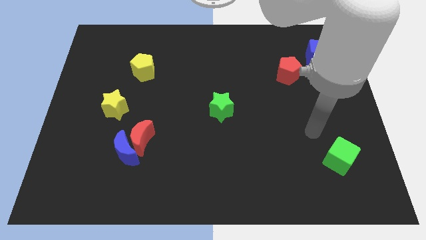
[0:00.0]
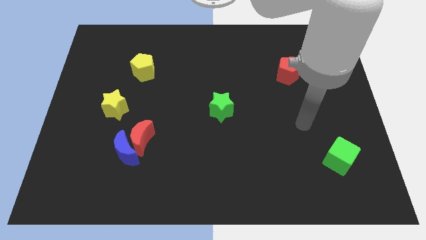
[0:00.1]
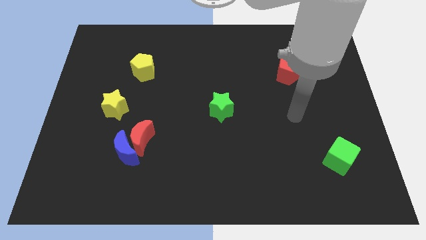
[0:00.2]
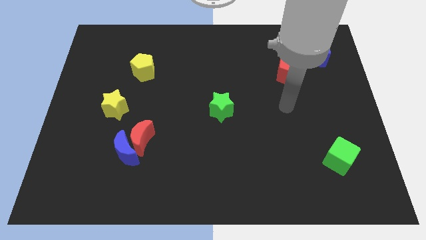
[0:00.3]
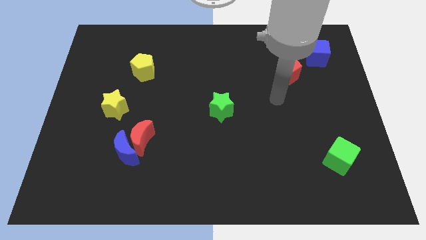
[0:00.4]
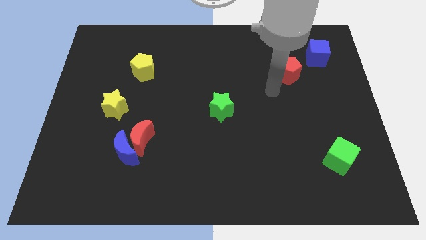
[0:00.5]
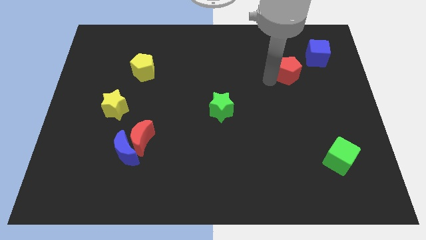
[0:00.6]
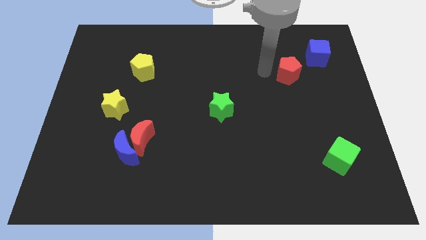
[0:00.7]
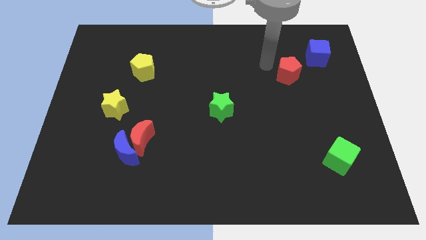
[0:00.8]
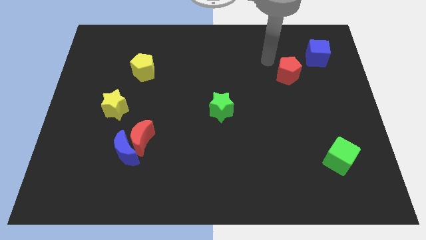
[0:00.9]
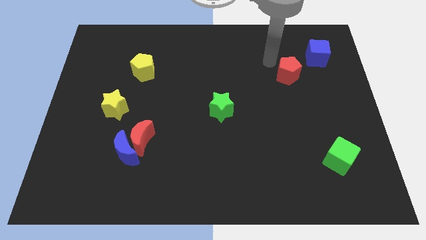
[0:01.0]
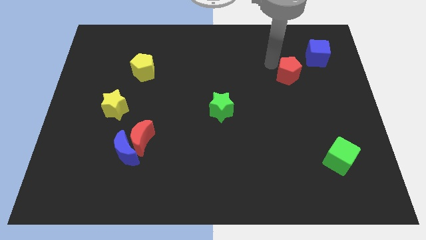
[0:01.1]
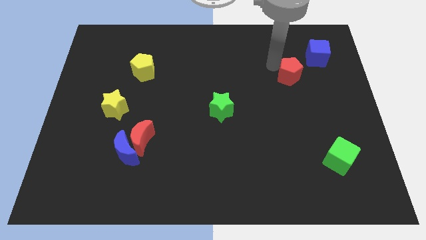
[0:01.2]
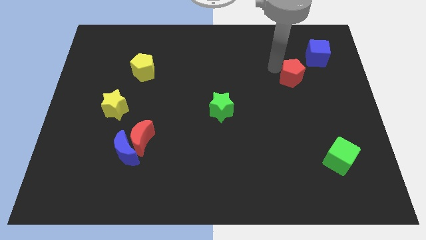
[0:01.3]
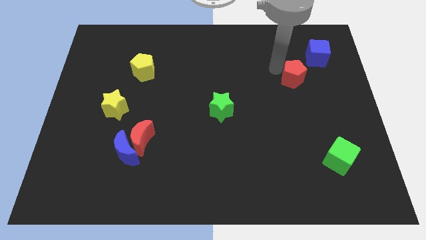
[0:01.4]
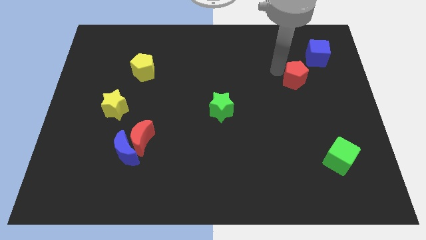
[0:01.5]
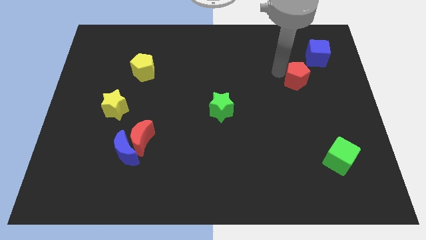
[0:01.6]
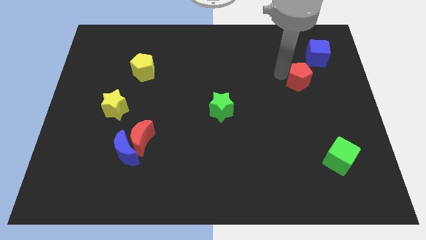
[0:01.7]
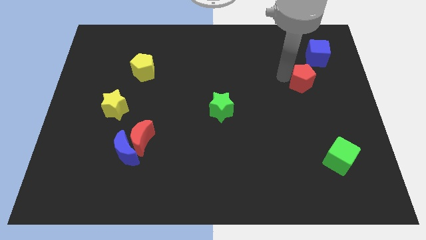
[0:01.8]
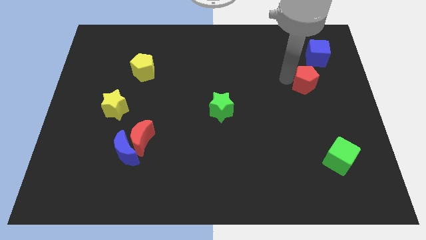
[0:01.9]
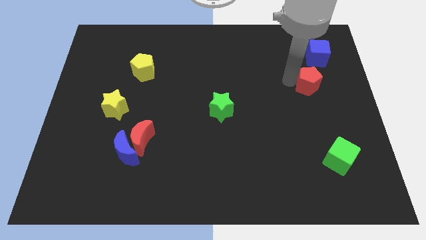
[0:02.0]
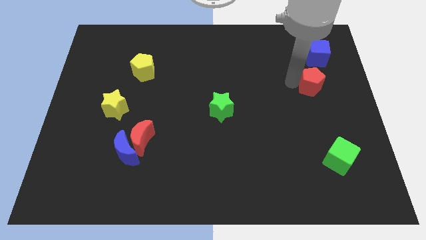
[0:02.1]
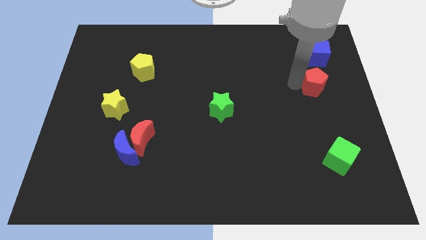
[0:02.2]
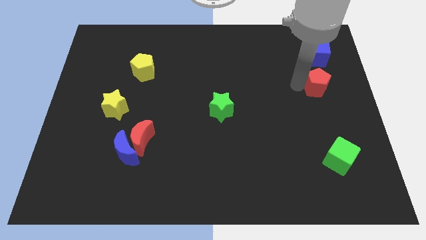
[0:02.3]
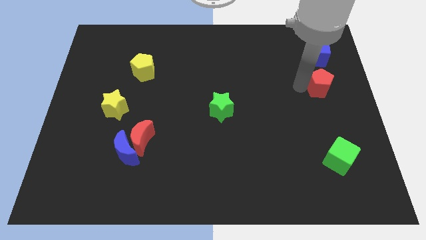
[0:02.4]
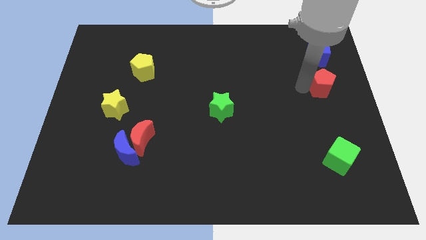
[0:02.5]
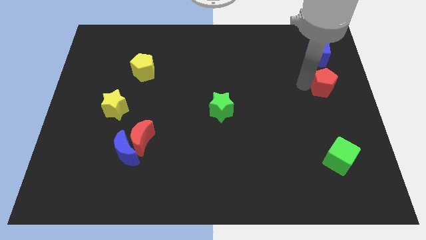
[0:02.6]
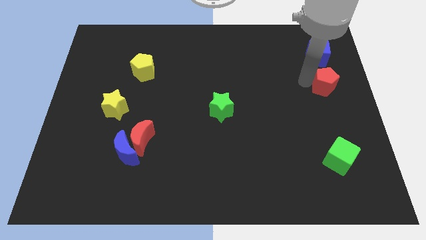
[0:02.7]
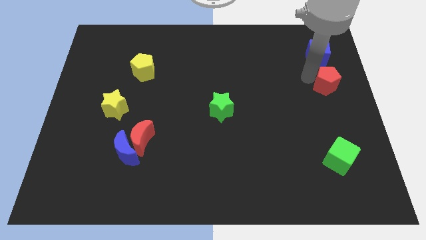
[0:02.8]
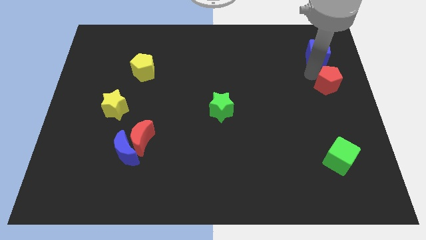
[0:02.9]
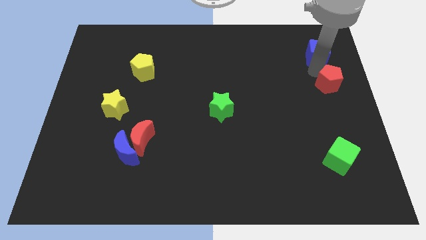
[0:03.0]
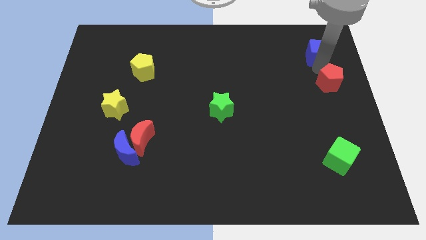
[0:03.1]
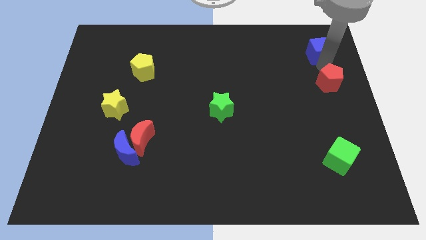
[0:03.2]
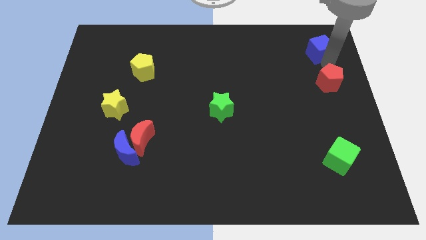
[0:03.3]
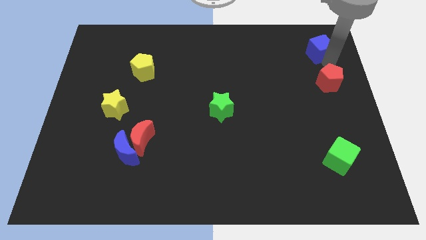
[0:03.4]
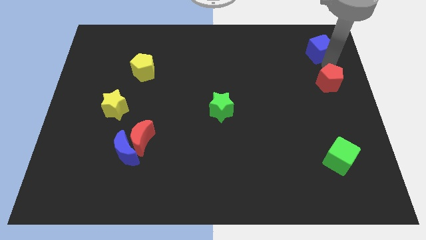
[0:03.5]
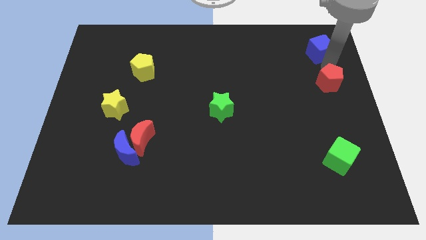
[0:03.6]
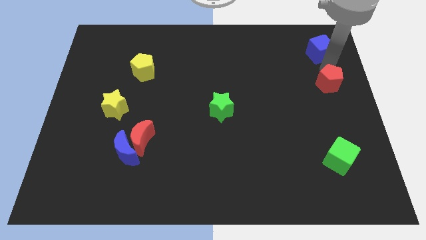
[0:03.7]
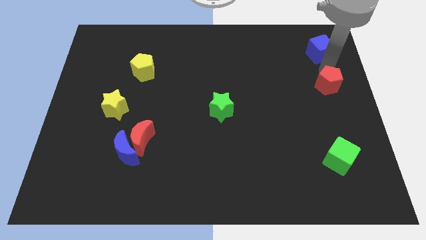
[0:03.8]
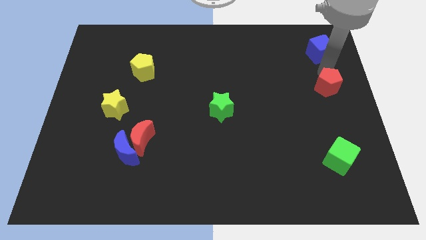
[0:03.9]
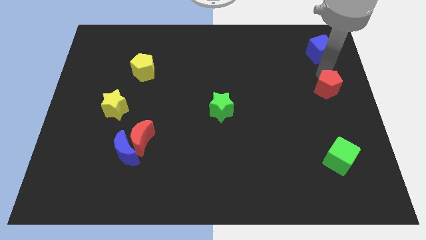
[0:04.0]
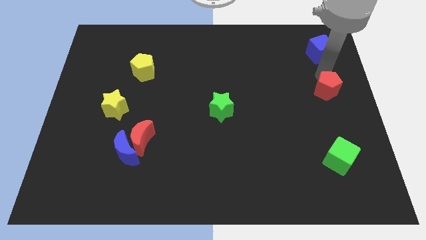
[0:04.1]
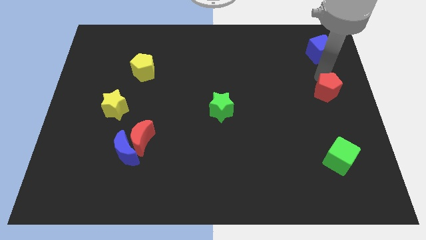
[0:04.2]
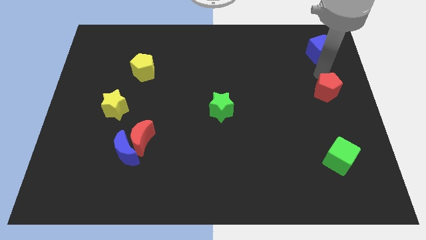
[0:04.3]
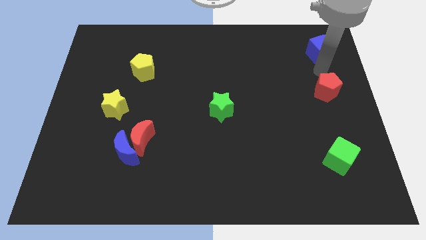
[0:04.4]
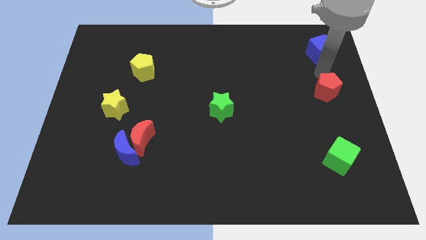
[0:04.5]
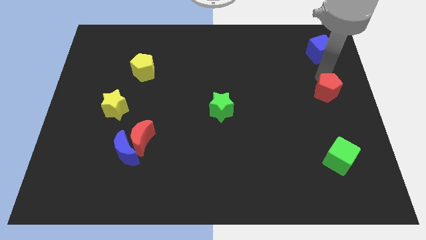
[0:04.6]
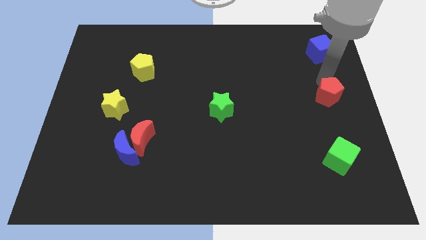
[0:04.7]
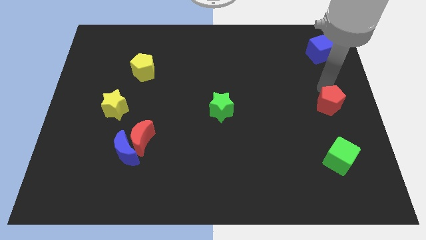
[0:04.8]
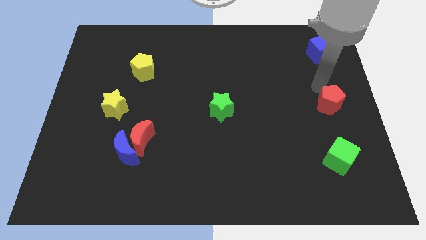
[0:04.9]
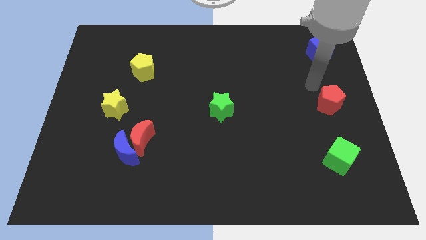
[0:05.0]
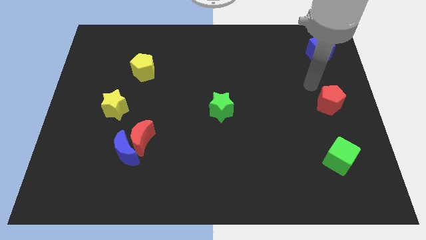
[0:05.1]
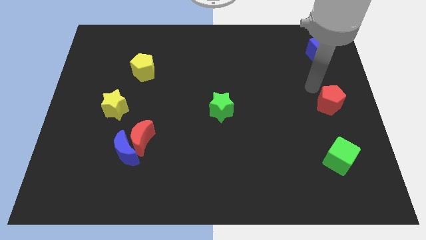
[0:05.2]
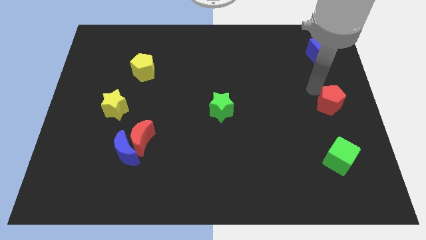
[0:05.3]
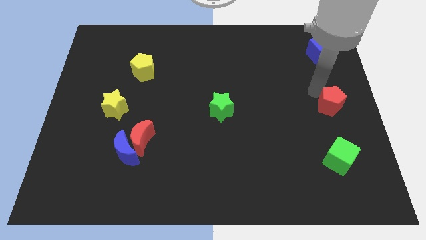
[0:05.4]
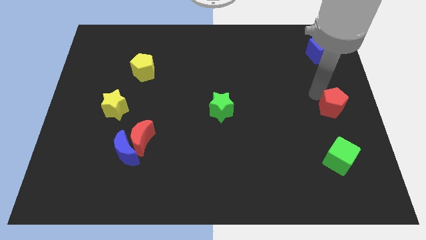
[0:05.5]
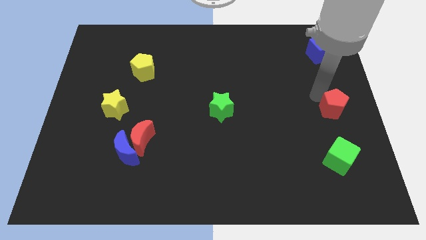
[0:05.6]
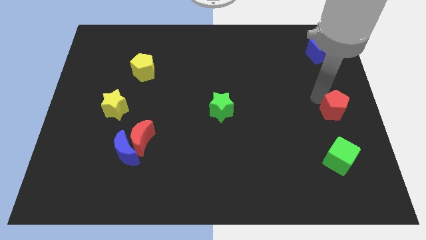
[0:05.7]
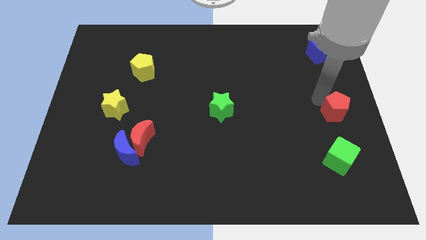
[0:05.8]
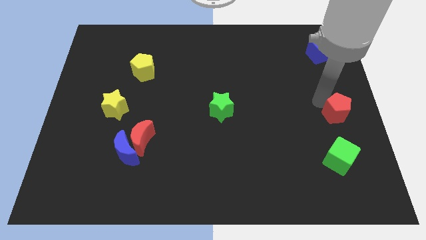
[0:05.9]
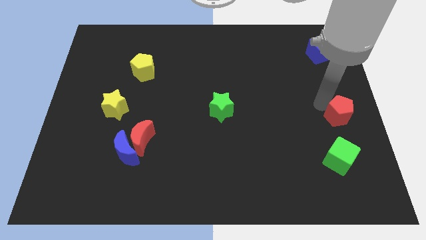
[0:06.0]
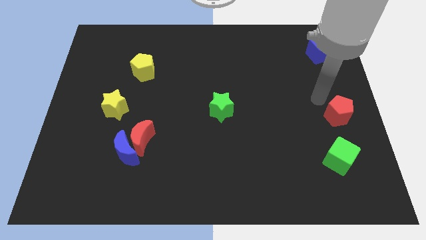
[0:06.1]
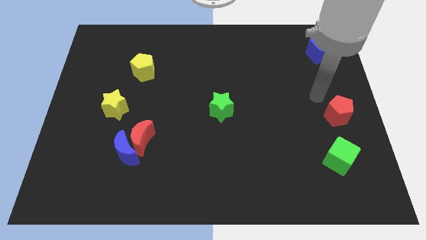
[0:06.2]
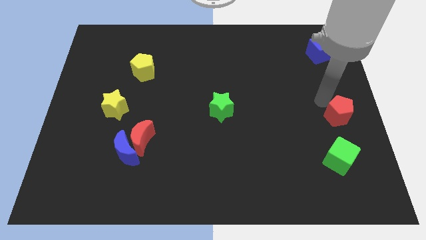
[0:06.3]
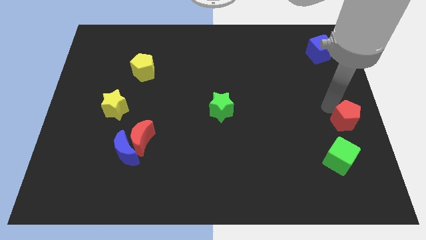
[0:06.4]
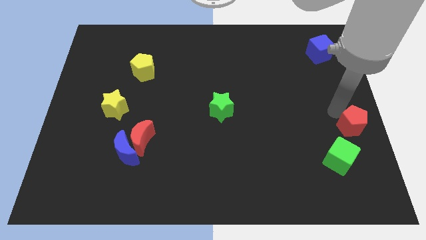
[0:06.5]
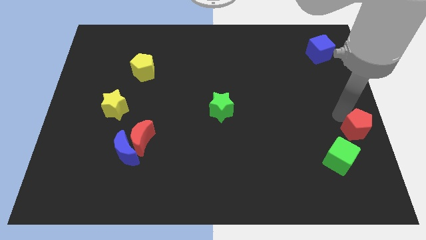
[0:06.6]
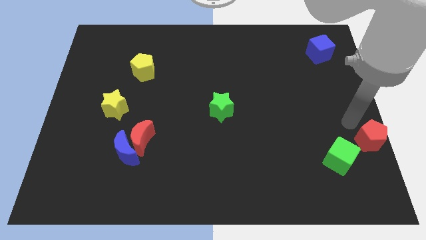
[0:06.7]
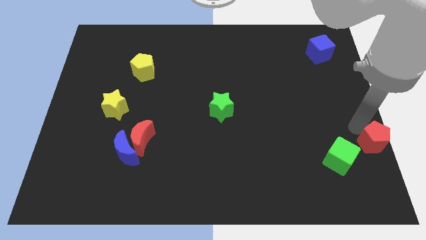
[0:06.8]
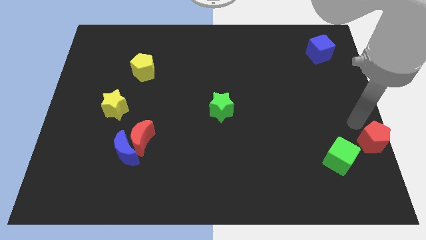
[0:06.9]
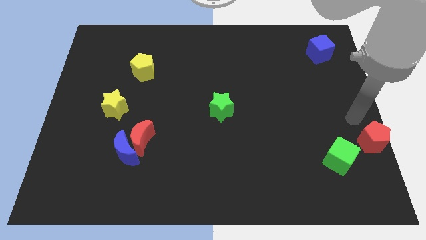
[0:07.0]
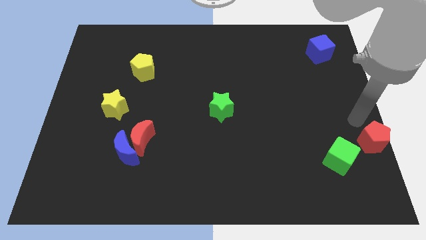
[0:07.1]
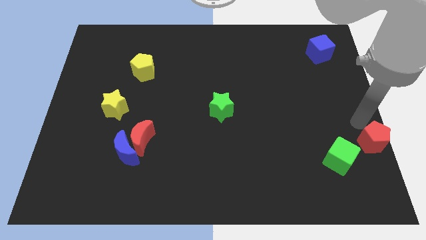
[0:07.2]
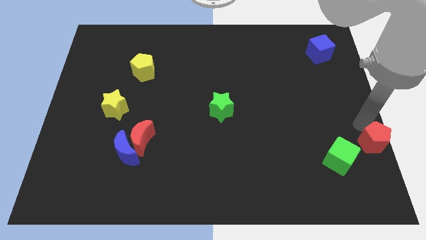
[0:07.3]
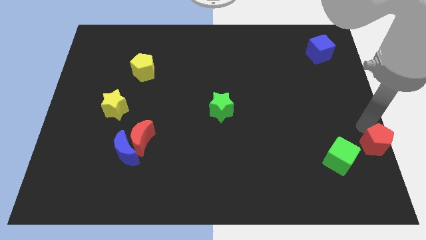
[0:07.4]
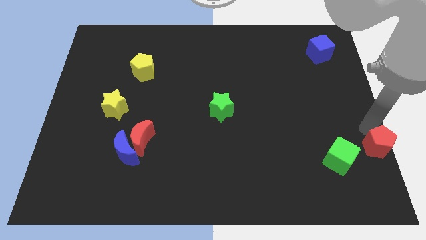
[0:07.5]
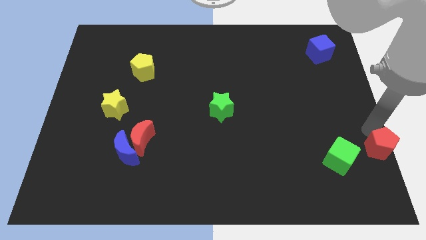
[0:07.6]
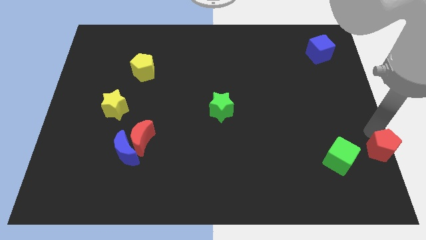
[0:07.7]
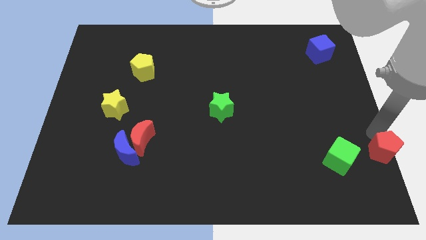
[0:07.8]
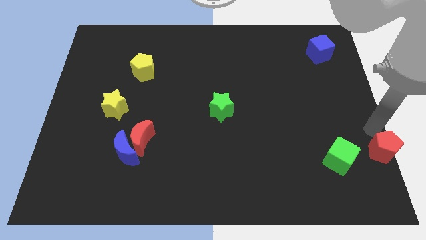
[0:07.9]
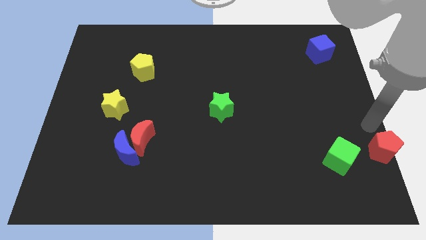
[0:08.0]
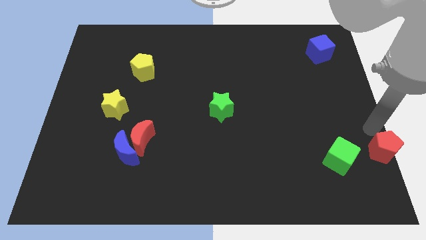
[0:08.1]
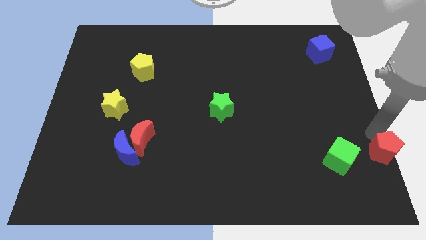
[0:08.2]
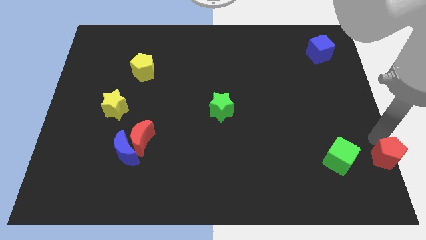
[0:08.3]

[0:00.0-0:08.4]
slide the red pentagon to the lower right corner
